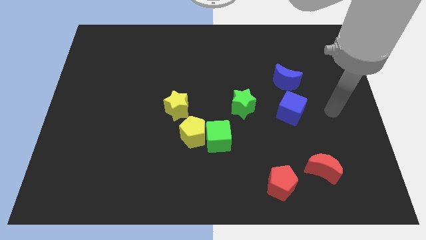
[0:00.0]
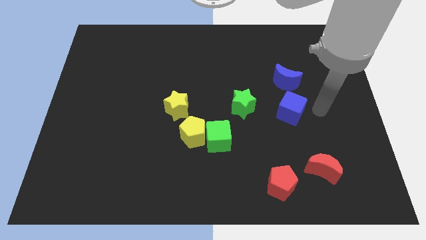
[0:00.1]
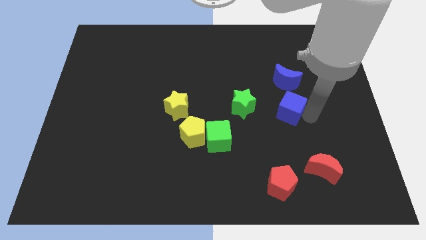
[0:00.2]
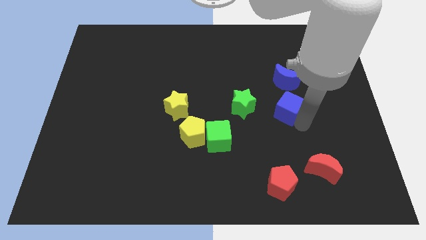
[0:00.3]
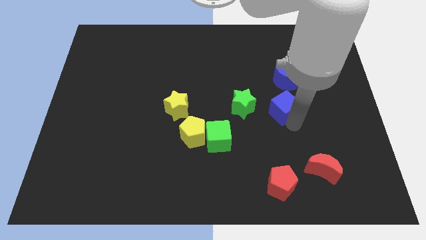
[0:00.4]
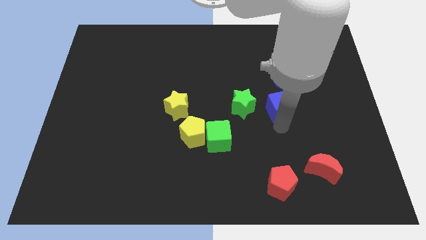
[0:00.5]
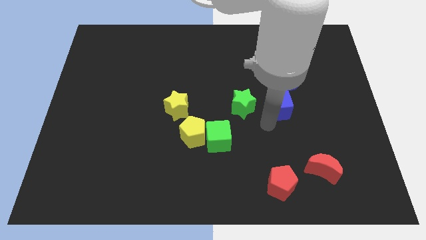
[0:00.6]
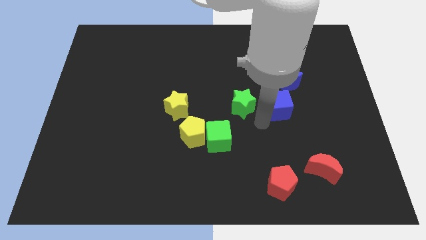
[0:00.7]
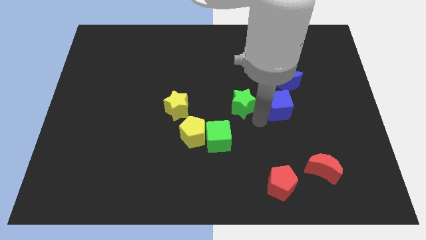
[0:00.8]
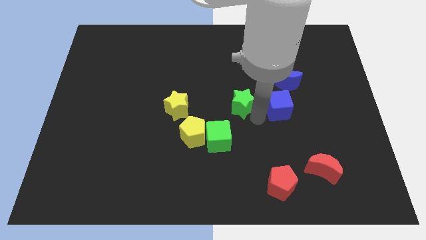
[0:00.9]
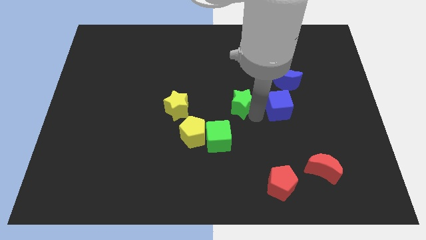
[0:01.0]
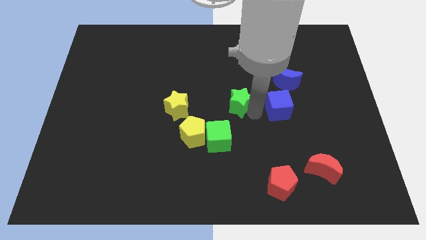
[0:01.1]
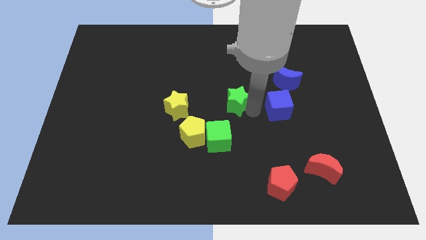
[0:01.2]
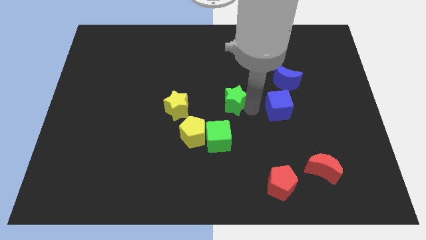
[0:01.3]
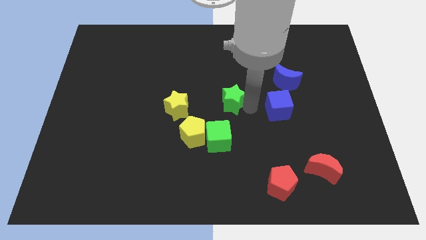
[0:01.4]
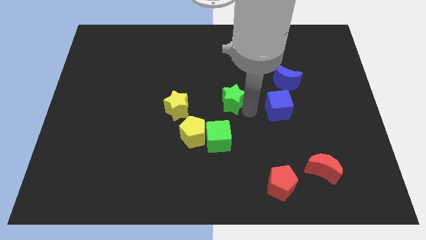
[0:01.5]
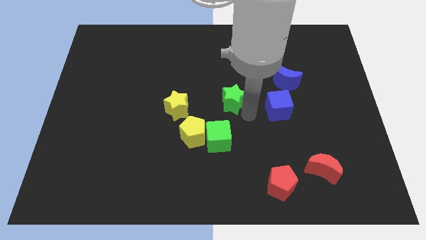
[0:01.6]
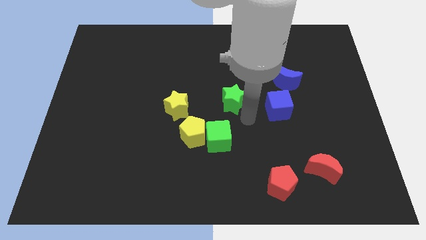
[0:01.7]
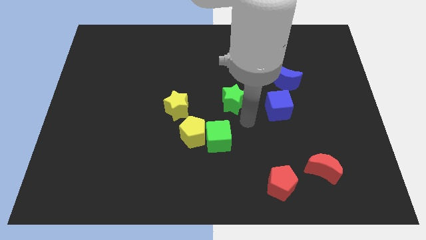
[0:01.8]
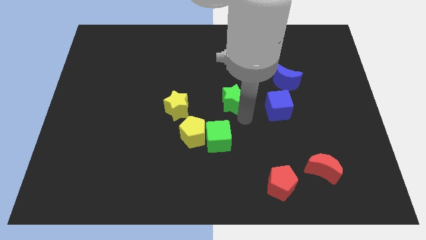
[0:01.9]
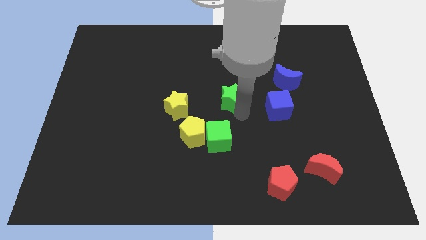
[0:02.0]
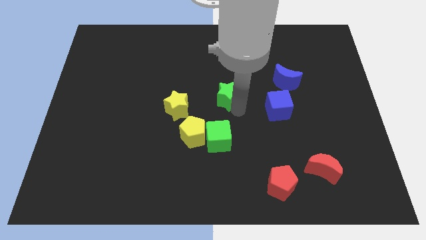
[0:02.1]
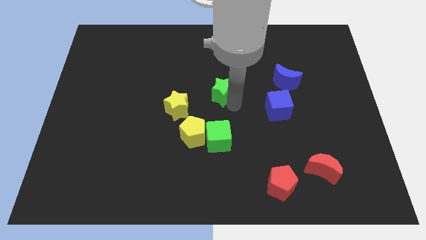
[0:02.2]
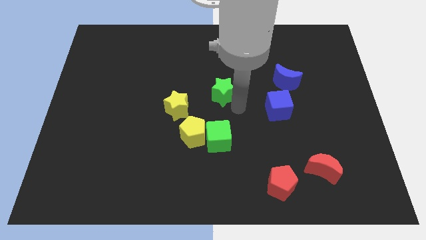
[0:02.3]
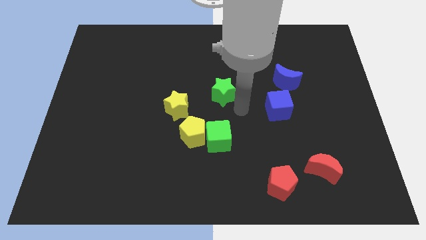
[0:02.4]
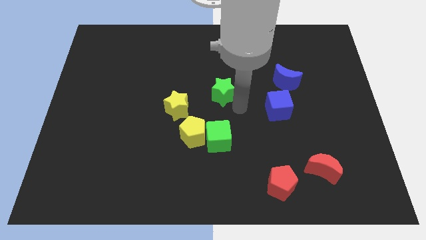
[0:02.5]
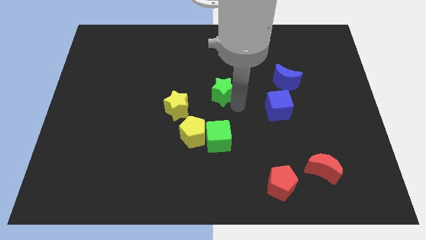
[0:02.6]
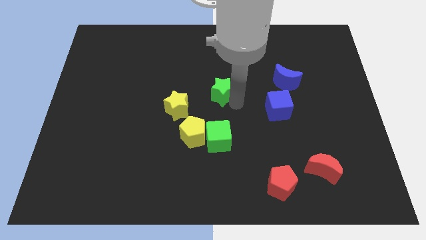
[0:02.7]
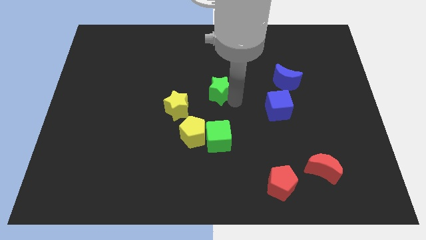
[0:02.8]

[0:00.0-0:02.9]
slide the green star slightly diagonally upwards and to the left

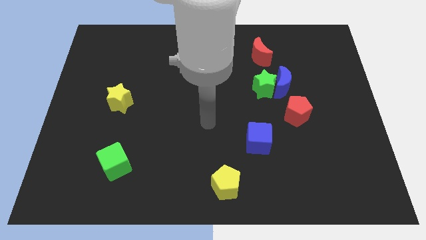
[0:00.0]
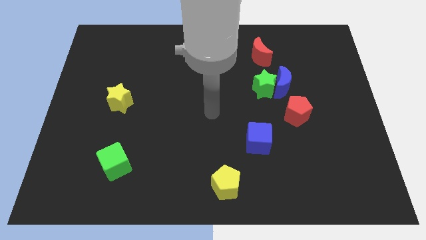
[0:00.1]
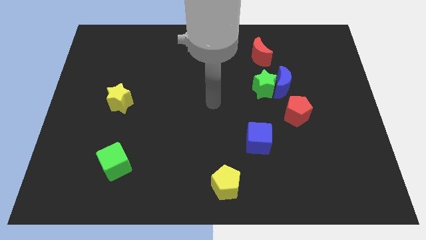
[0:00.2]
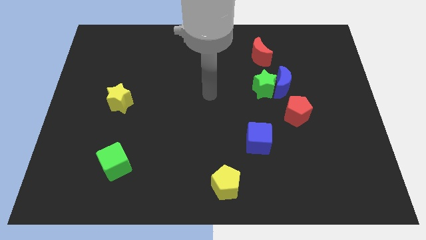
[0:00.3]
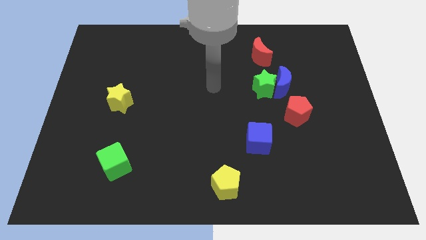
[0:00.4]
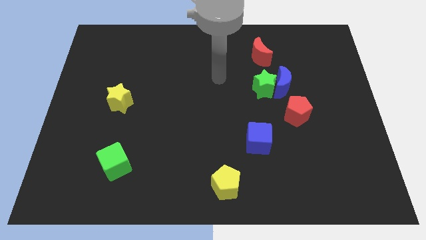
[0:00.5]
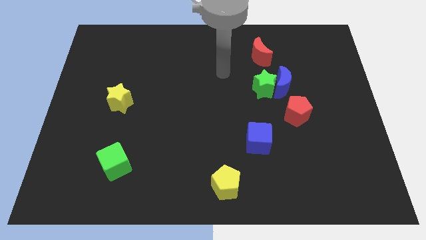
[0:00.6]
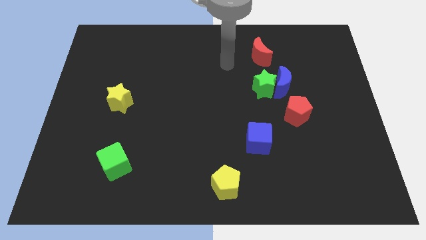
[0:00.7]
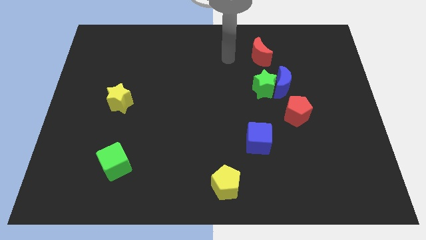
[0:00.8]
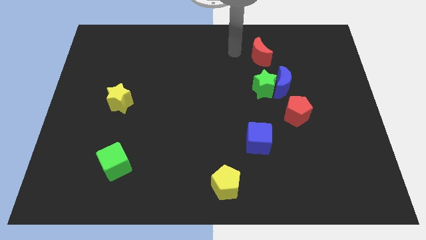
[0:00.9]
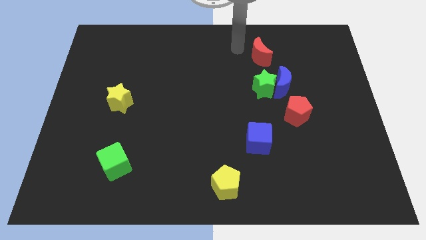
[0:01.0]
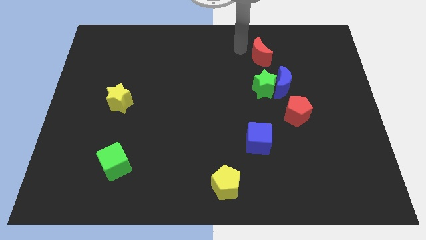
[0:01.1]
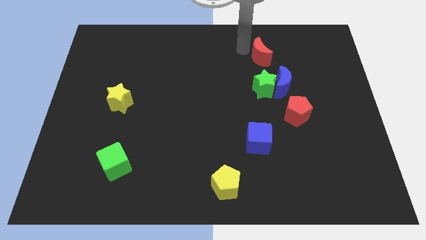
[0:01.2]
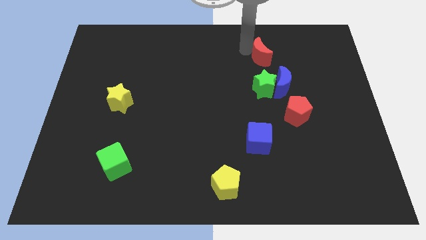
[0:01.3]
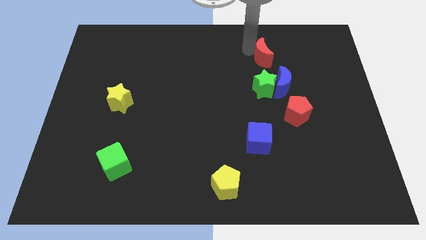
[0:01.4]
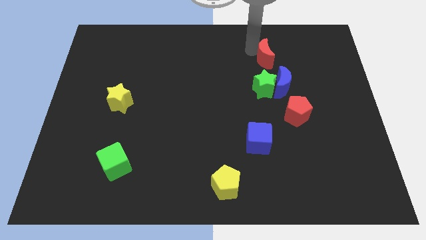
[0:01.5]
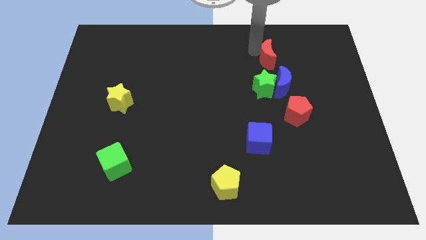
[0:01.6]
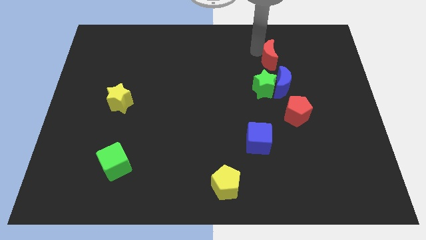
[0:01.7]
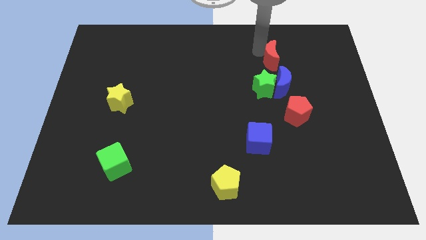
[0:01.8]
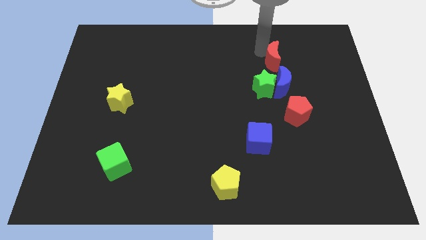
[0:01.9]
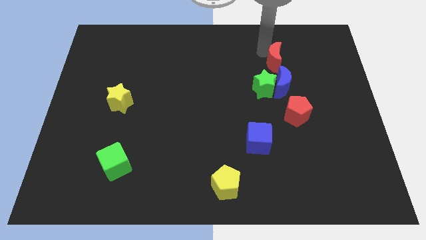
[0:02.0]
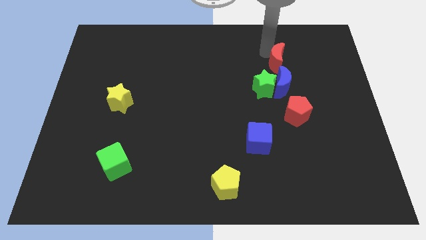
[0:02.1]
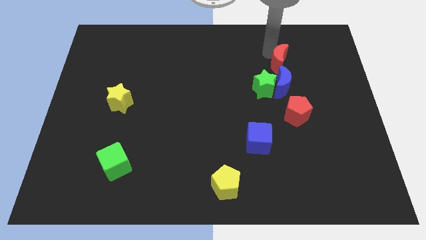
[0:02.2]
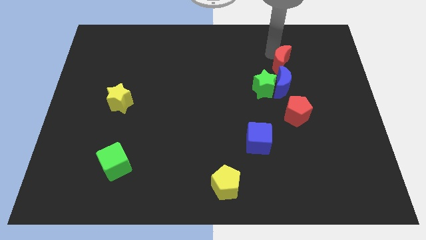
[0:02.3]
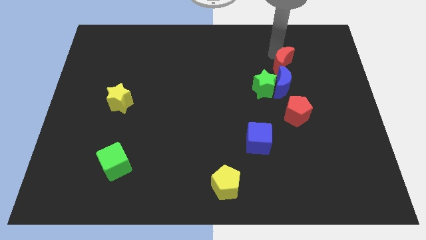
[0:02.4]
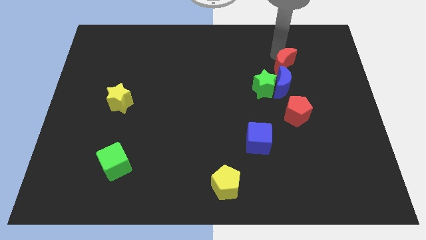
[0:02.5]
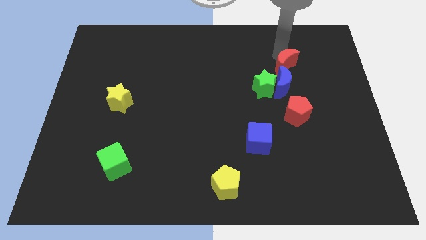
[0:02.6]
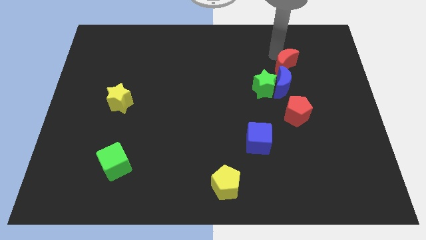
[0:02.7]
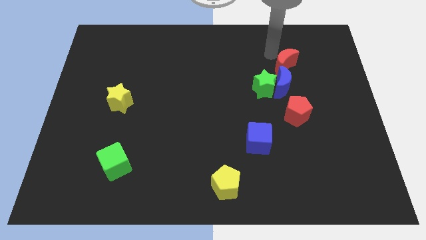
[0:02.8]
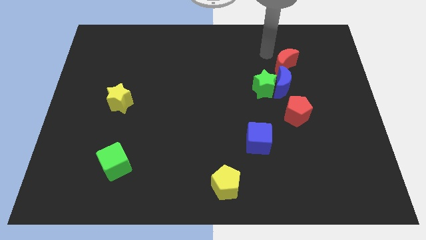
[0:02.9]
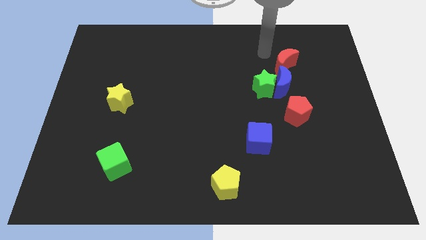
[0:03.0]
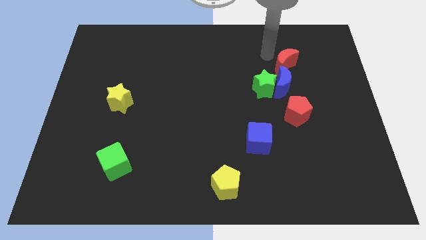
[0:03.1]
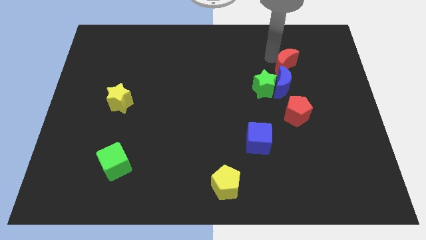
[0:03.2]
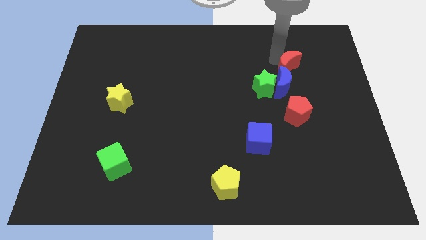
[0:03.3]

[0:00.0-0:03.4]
push the red moon a little bit diagonally down and right

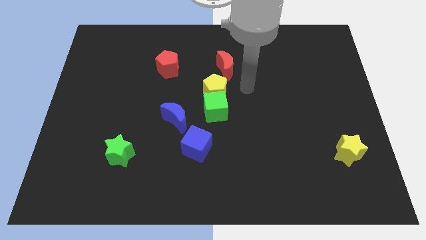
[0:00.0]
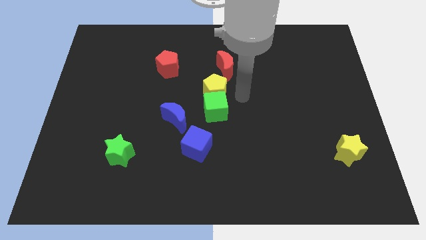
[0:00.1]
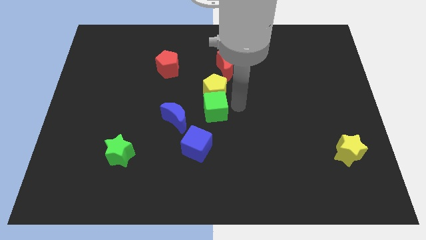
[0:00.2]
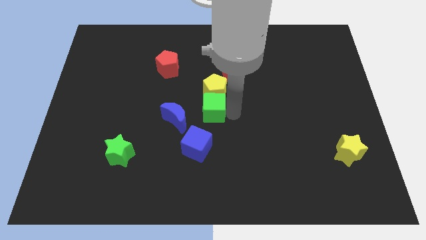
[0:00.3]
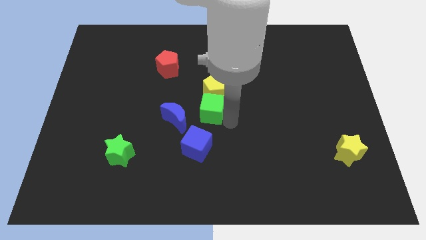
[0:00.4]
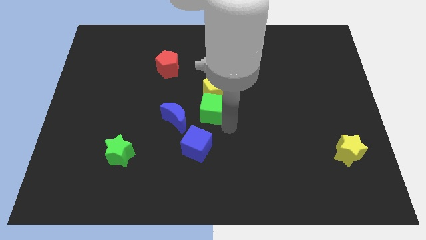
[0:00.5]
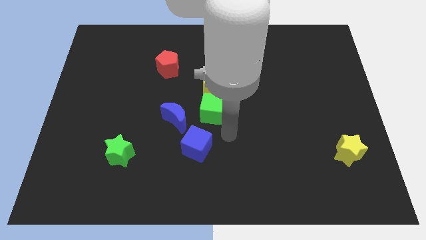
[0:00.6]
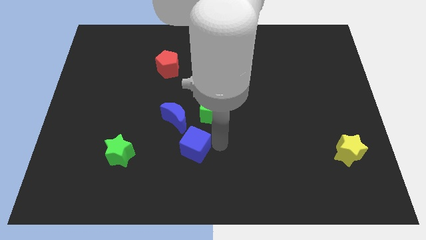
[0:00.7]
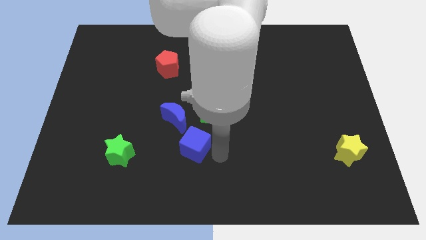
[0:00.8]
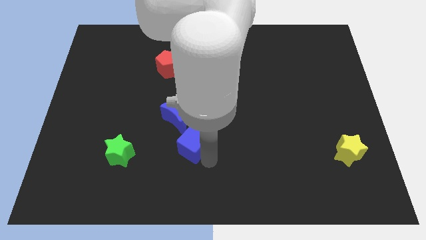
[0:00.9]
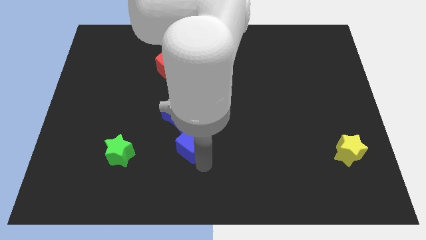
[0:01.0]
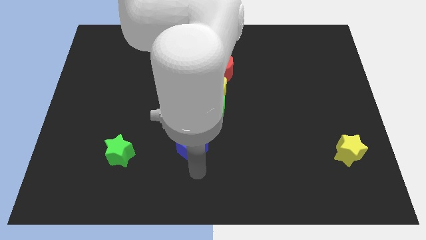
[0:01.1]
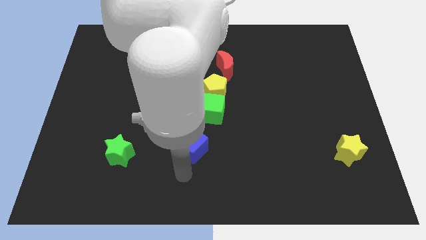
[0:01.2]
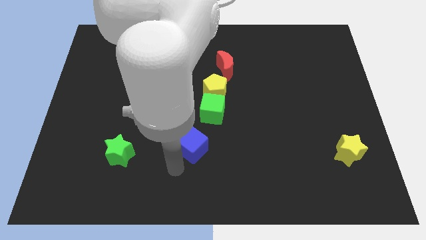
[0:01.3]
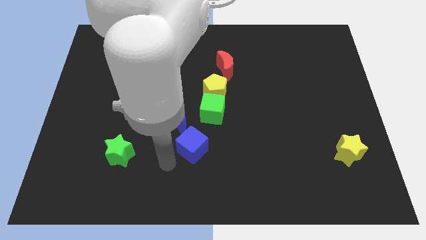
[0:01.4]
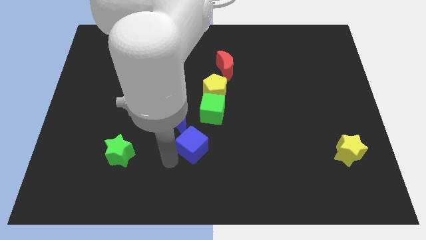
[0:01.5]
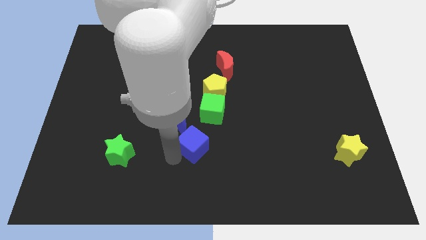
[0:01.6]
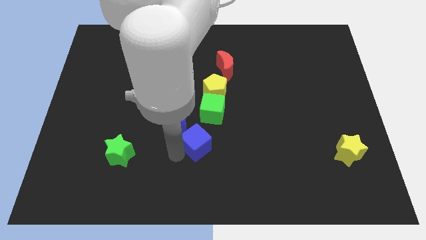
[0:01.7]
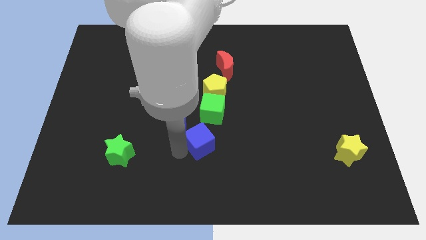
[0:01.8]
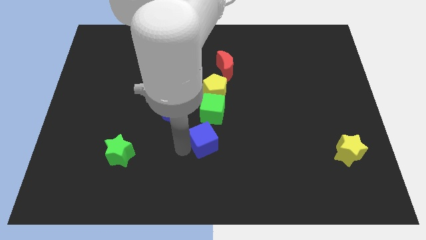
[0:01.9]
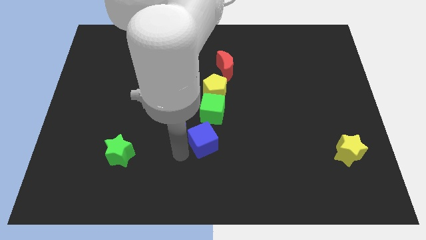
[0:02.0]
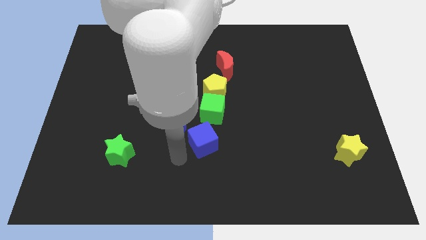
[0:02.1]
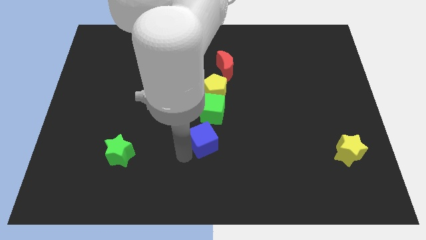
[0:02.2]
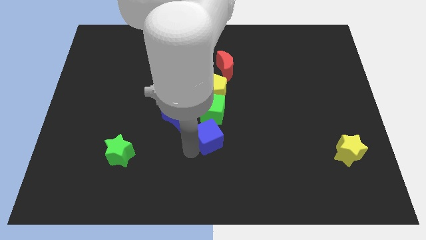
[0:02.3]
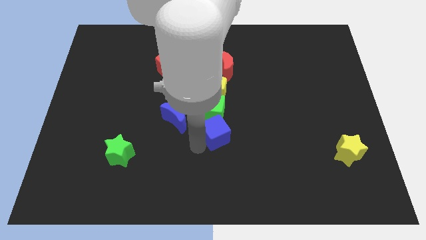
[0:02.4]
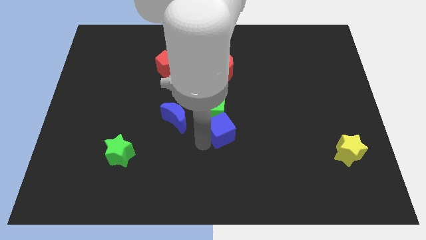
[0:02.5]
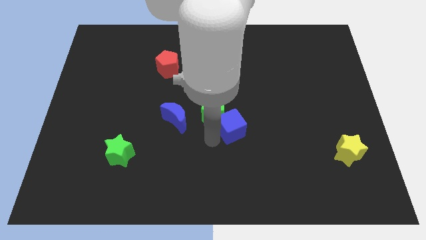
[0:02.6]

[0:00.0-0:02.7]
slightly slide the blue cube diagonally up and to the right
